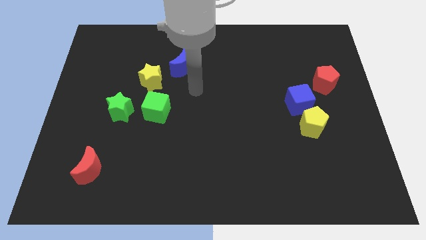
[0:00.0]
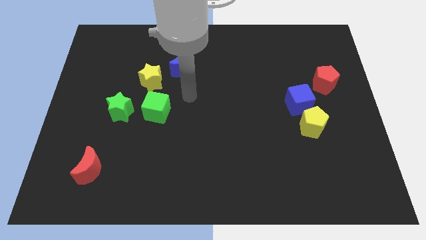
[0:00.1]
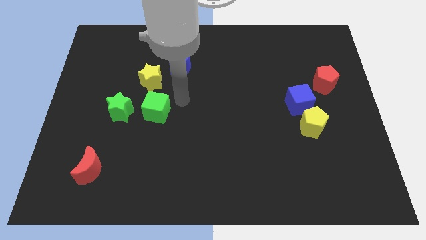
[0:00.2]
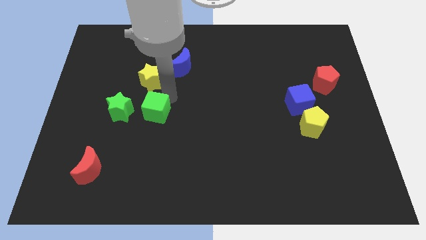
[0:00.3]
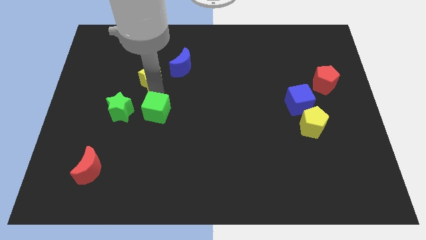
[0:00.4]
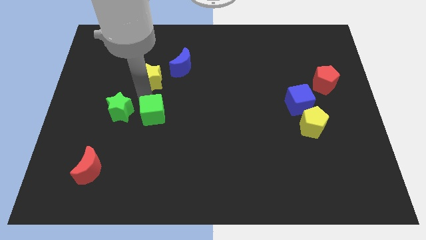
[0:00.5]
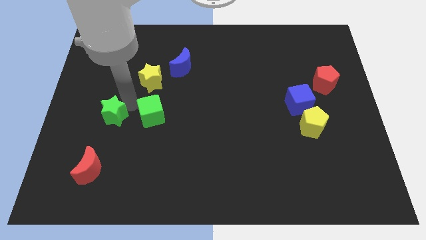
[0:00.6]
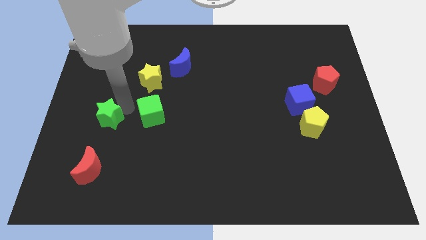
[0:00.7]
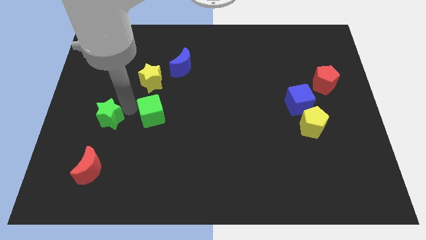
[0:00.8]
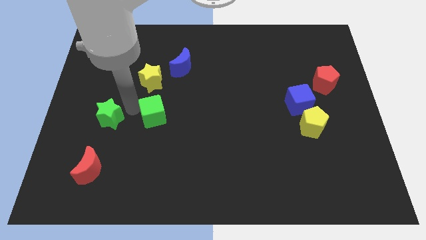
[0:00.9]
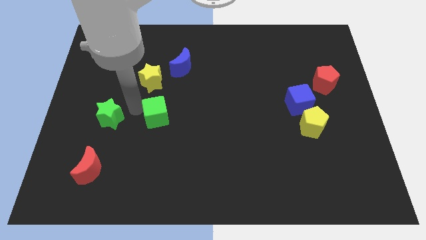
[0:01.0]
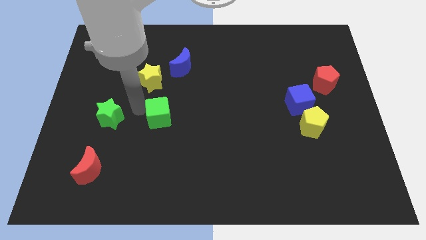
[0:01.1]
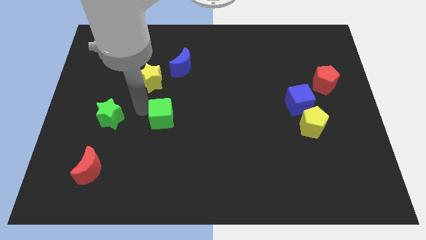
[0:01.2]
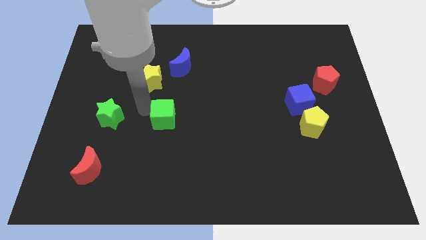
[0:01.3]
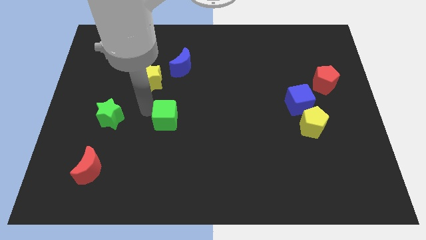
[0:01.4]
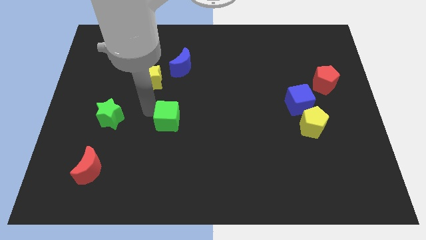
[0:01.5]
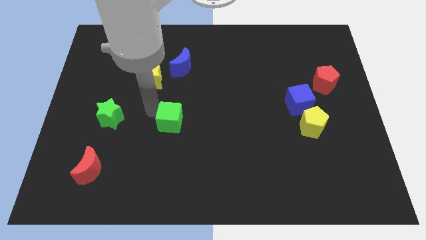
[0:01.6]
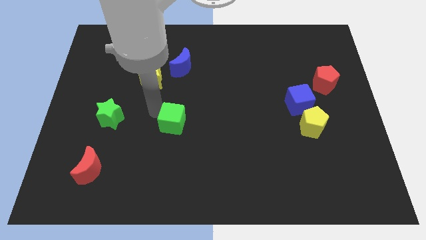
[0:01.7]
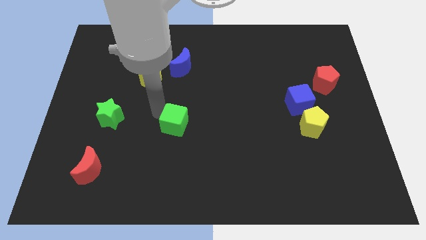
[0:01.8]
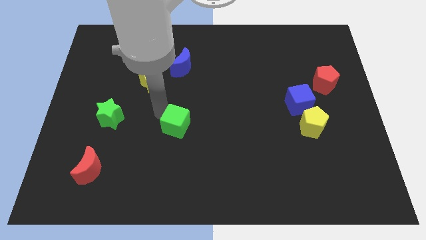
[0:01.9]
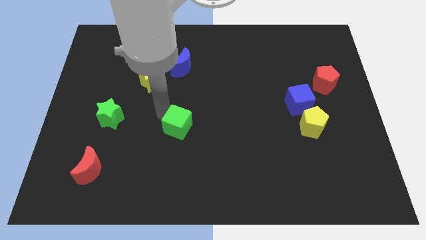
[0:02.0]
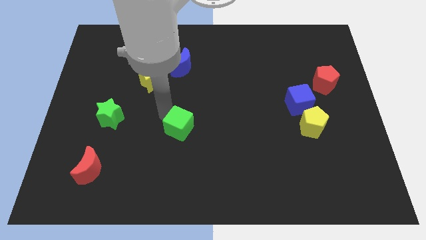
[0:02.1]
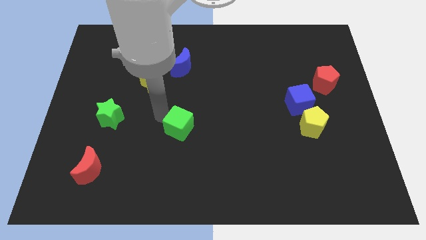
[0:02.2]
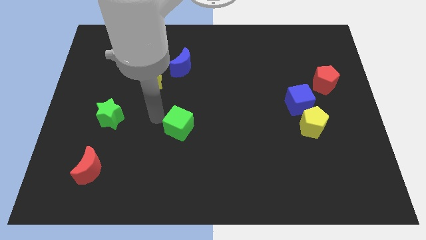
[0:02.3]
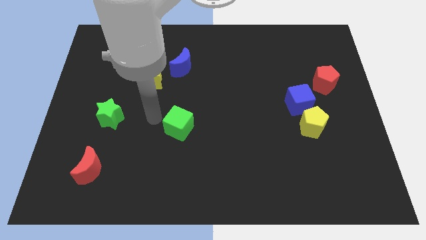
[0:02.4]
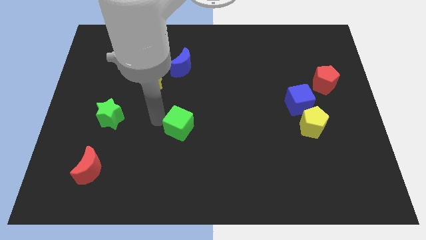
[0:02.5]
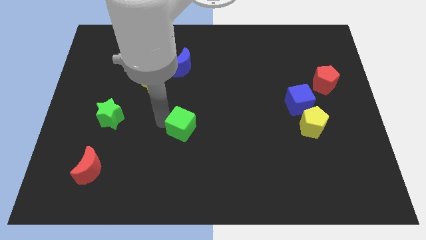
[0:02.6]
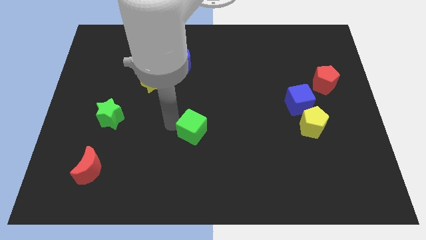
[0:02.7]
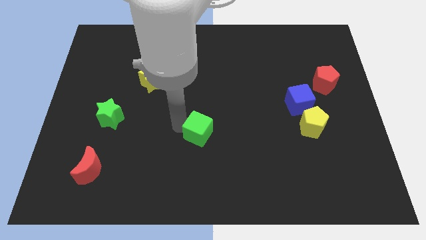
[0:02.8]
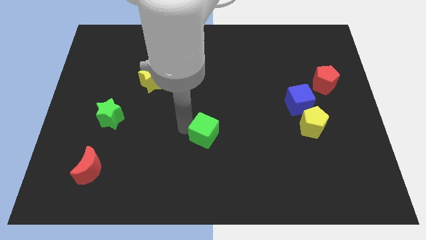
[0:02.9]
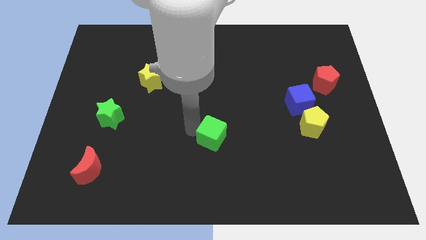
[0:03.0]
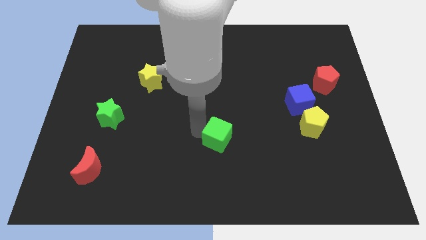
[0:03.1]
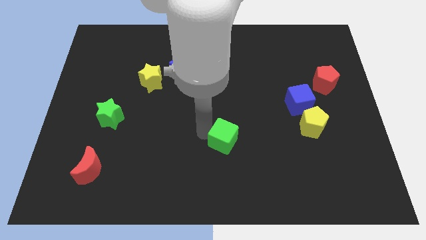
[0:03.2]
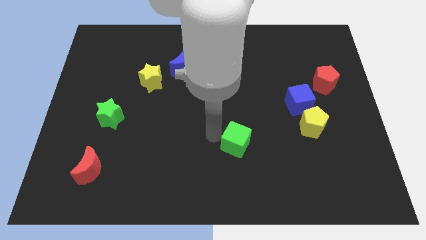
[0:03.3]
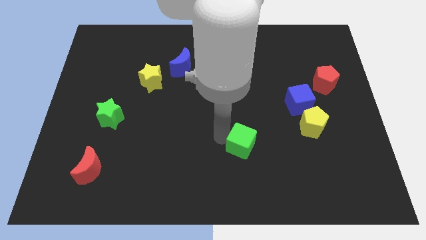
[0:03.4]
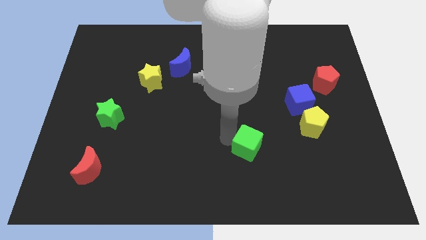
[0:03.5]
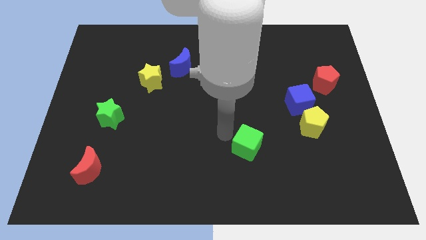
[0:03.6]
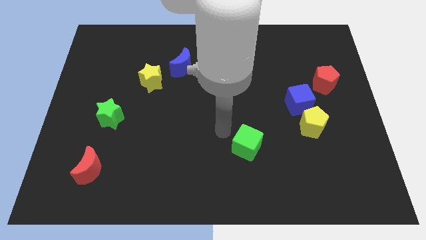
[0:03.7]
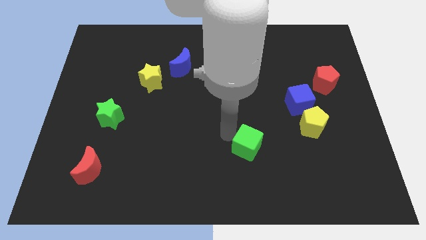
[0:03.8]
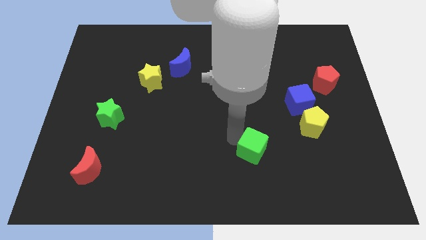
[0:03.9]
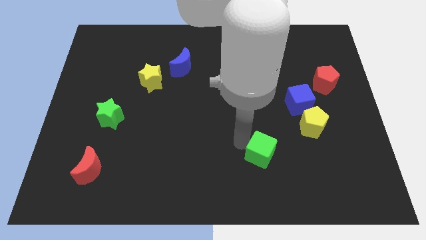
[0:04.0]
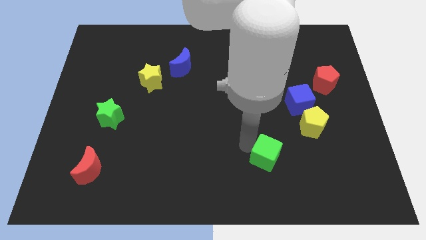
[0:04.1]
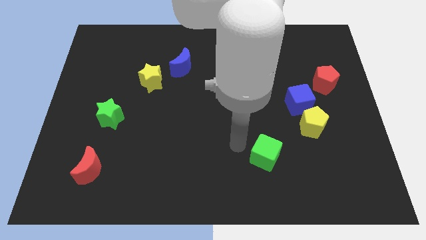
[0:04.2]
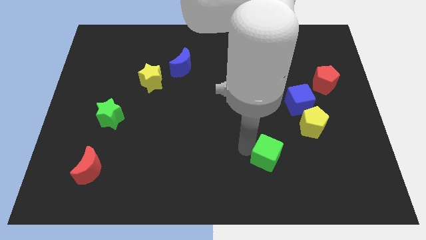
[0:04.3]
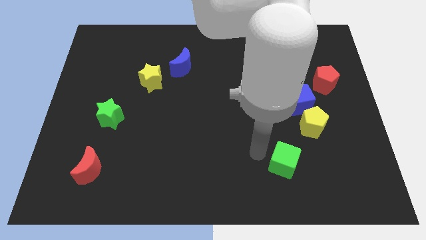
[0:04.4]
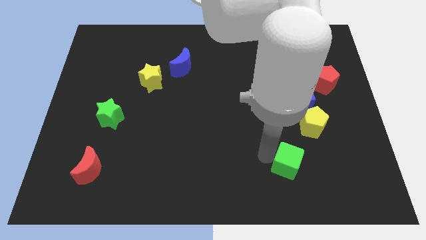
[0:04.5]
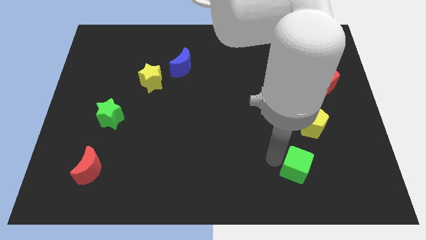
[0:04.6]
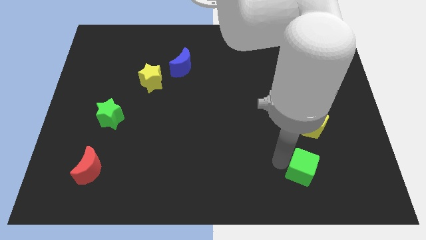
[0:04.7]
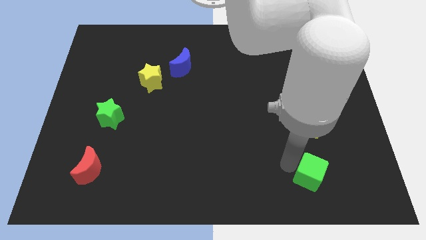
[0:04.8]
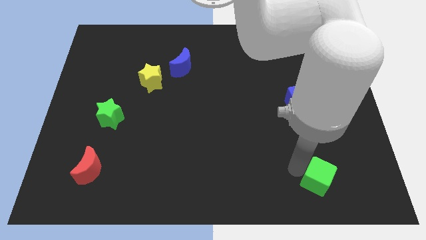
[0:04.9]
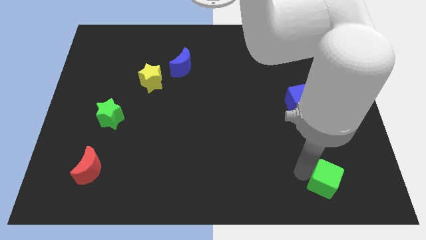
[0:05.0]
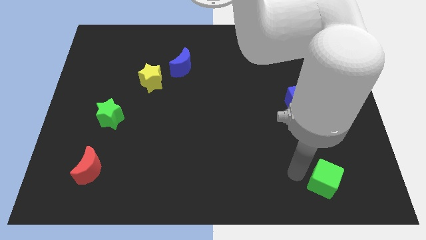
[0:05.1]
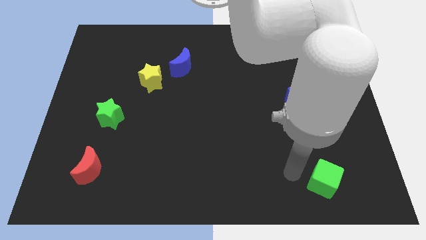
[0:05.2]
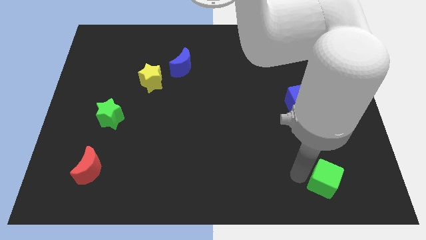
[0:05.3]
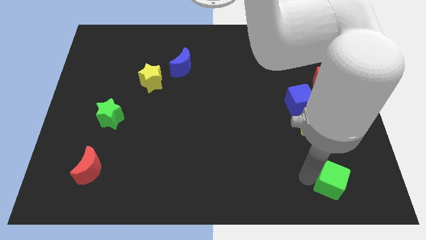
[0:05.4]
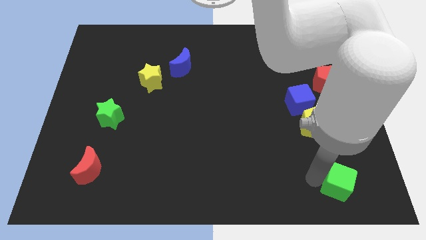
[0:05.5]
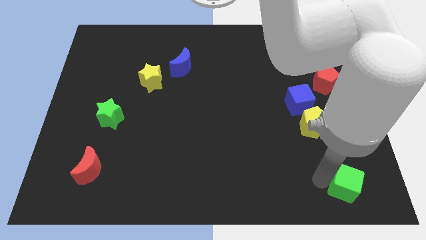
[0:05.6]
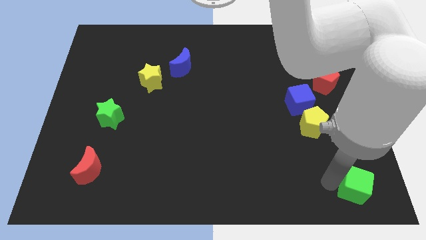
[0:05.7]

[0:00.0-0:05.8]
put the green cube to the bottom right

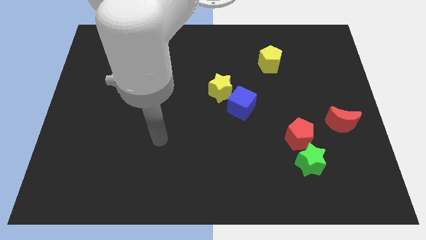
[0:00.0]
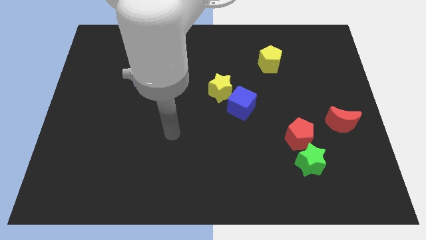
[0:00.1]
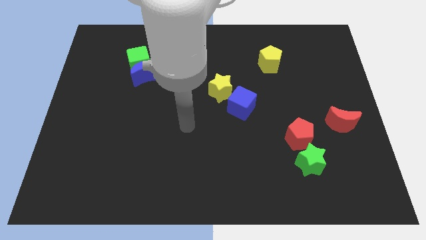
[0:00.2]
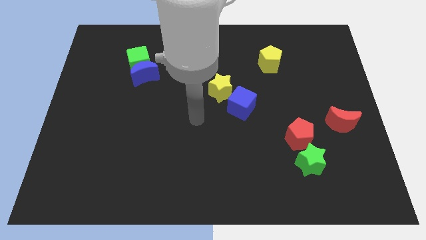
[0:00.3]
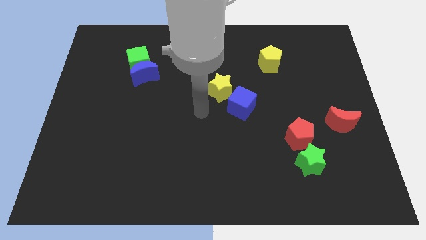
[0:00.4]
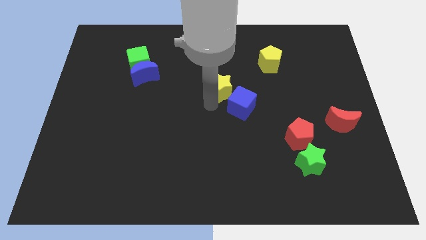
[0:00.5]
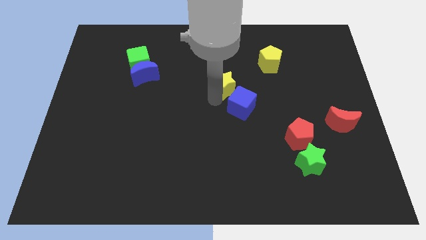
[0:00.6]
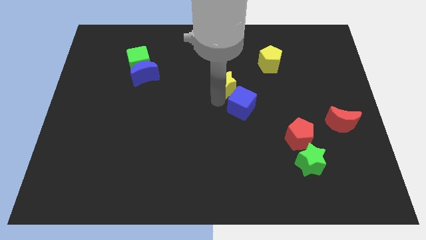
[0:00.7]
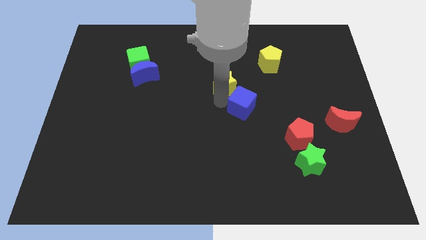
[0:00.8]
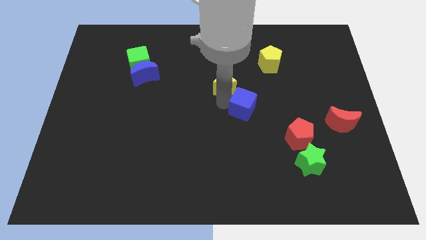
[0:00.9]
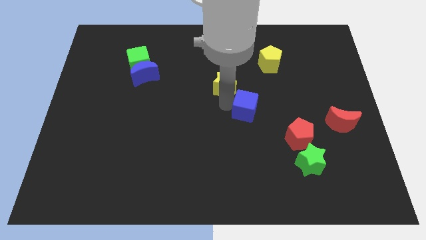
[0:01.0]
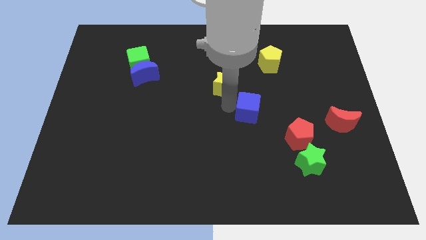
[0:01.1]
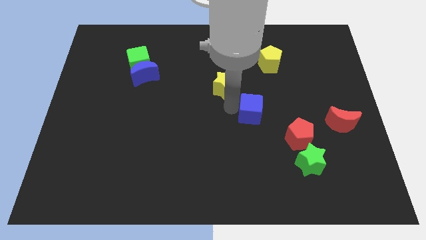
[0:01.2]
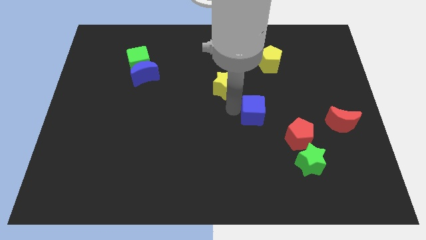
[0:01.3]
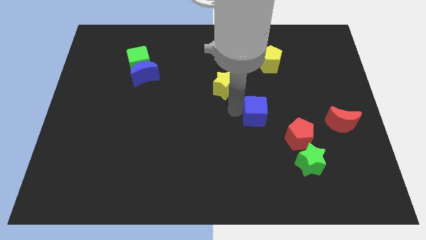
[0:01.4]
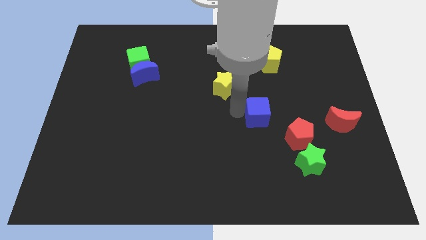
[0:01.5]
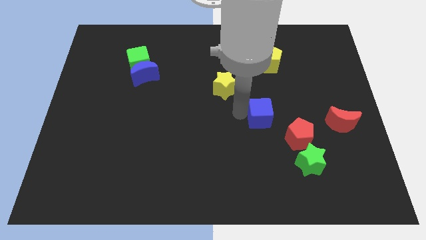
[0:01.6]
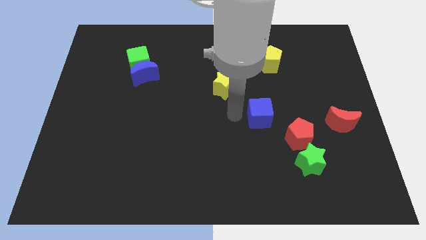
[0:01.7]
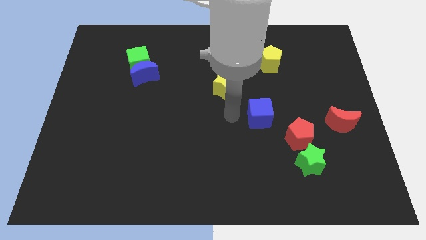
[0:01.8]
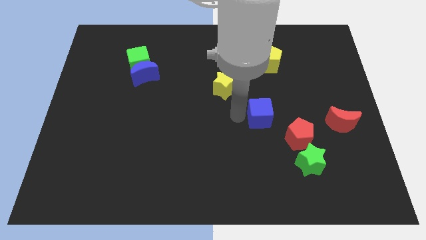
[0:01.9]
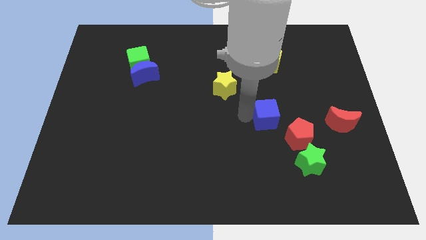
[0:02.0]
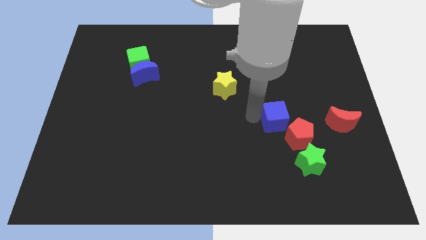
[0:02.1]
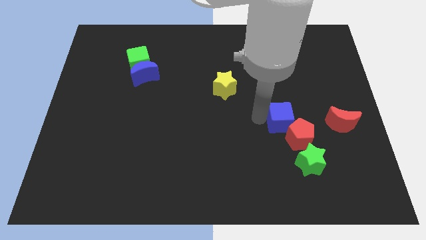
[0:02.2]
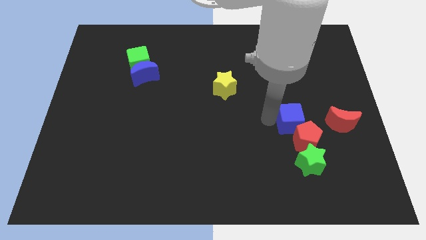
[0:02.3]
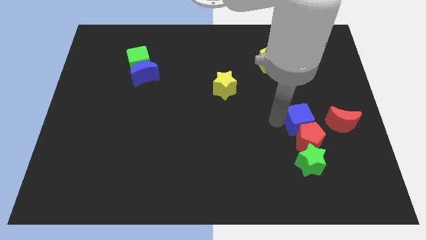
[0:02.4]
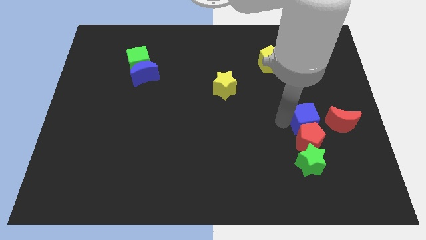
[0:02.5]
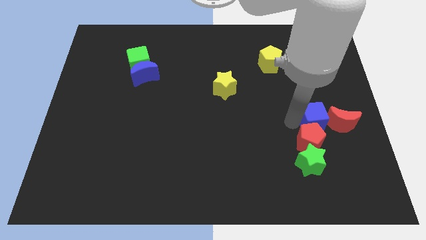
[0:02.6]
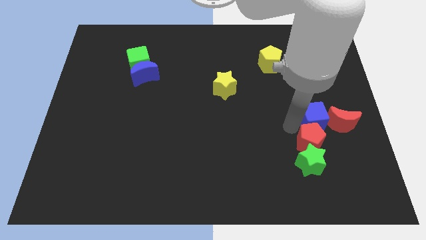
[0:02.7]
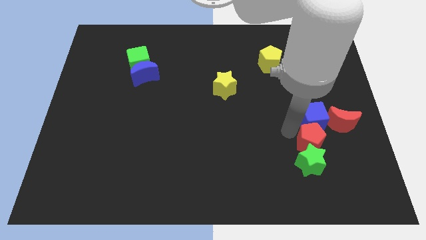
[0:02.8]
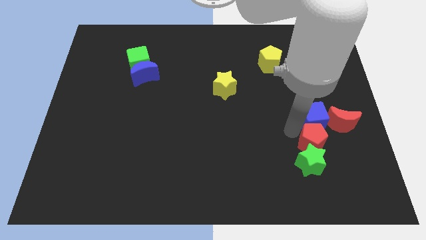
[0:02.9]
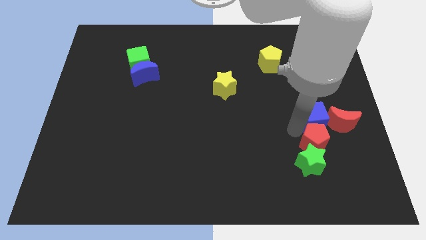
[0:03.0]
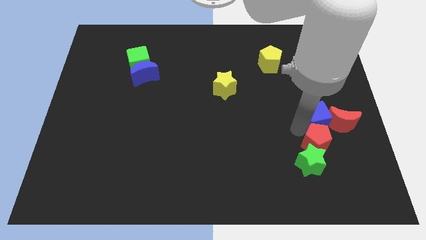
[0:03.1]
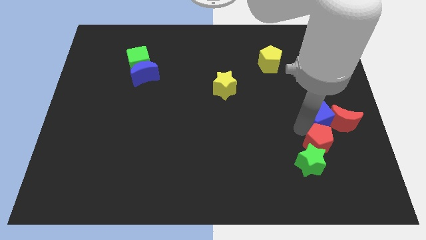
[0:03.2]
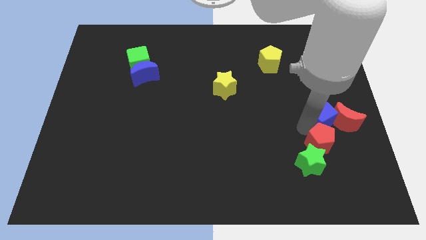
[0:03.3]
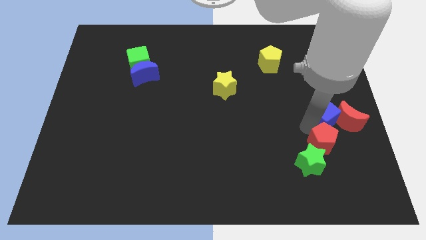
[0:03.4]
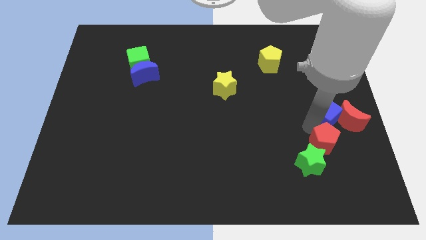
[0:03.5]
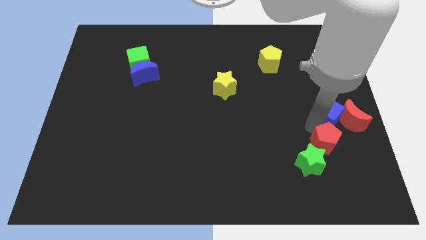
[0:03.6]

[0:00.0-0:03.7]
push the blue cube to the center right
